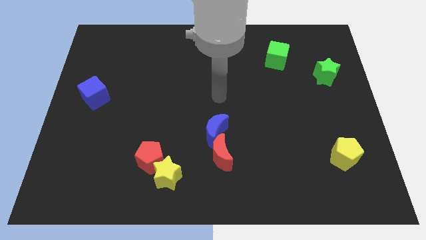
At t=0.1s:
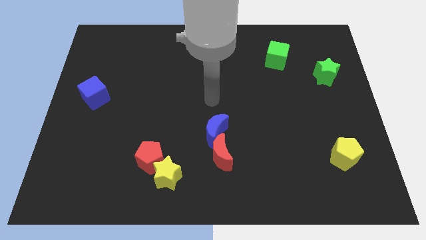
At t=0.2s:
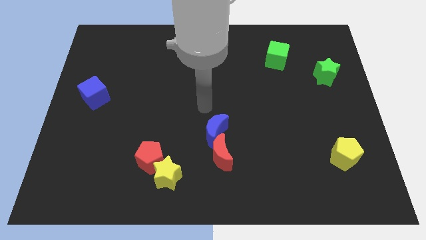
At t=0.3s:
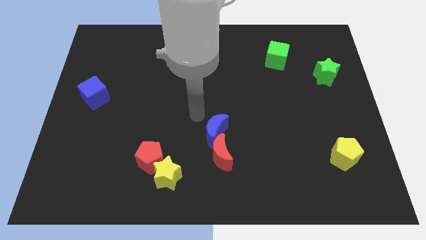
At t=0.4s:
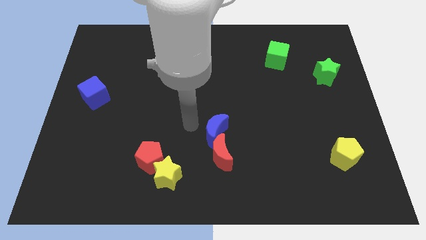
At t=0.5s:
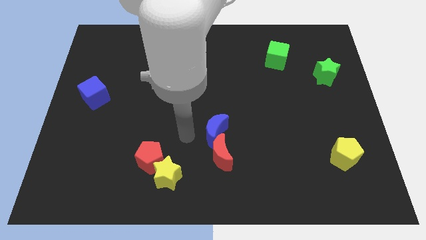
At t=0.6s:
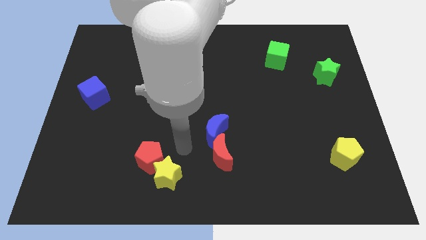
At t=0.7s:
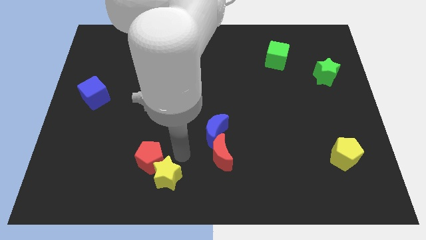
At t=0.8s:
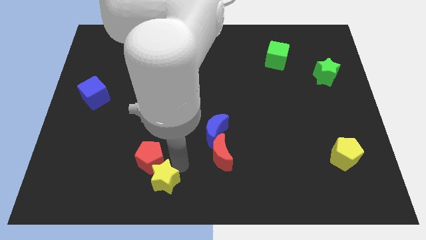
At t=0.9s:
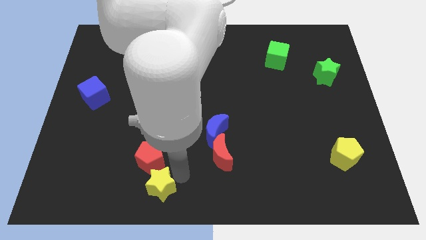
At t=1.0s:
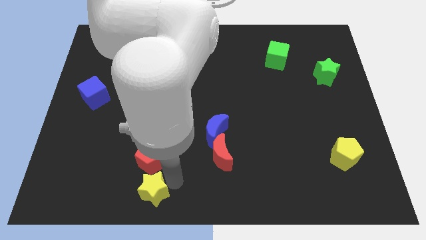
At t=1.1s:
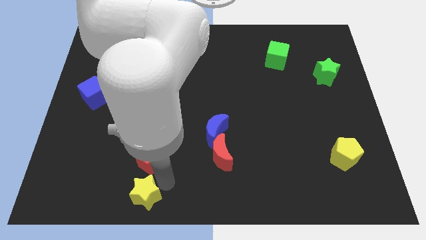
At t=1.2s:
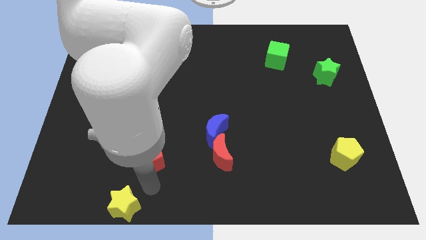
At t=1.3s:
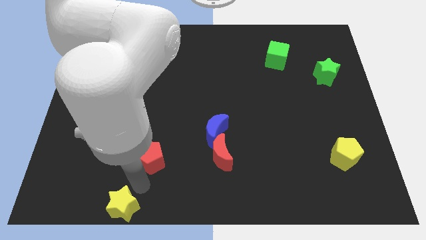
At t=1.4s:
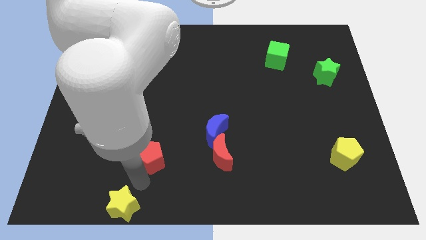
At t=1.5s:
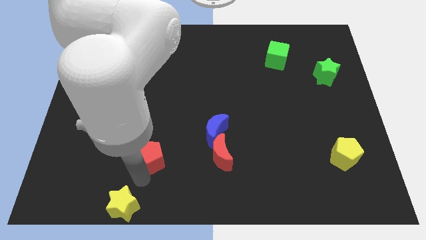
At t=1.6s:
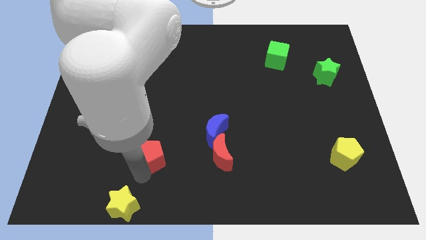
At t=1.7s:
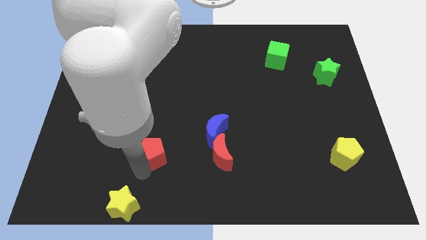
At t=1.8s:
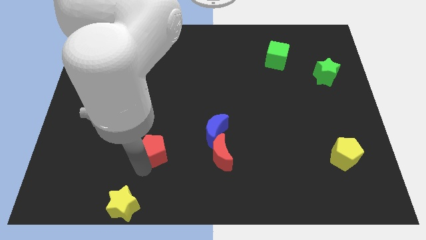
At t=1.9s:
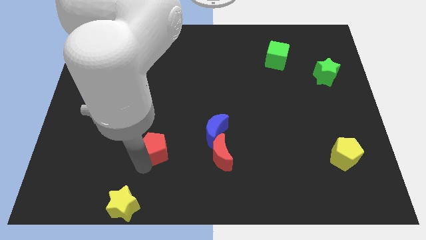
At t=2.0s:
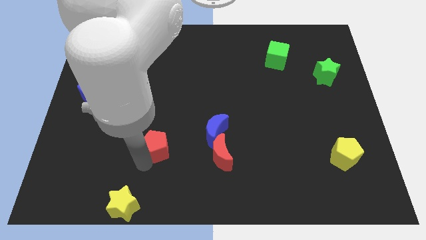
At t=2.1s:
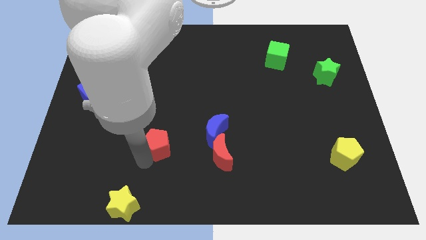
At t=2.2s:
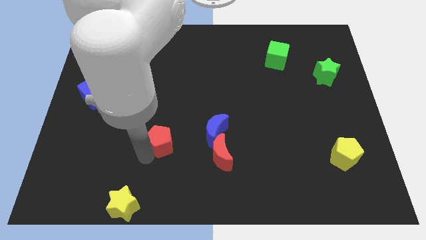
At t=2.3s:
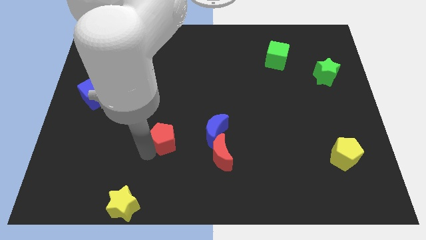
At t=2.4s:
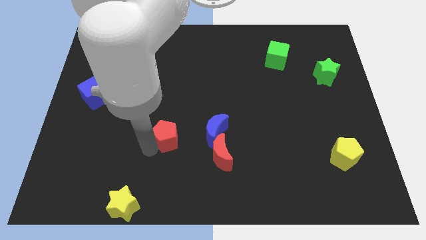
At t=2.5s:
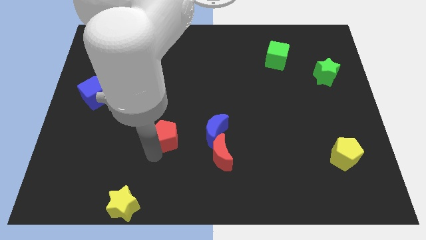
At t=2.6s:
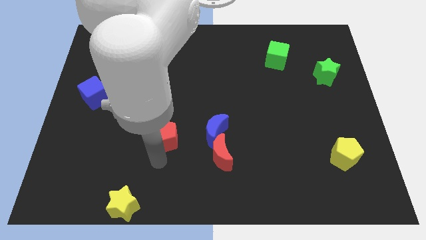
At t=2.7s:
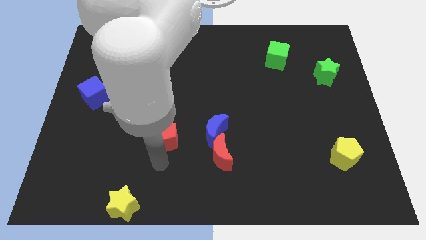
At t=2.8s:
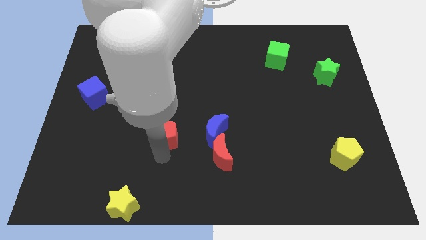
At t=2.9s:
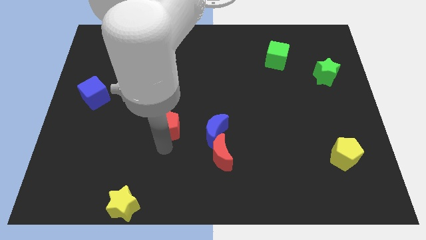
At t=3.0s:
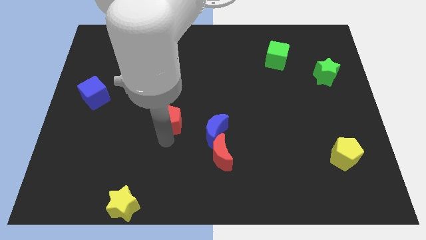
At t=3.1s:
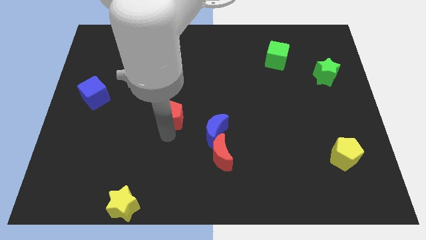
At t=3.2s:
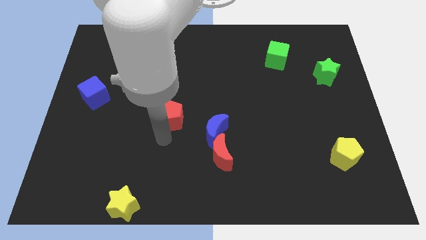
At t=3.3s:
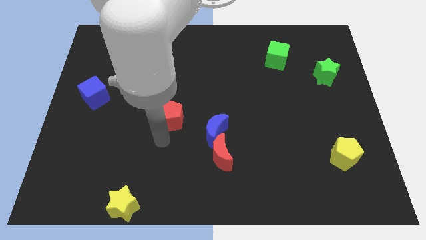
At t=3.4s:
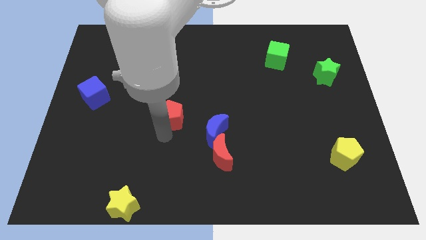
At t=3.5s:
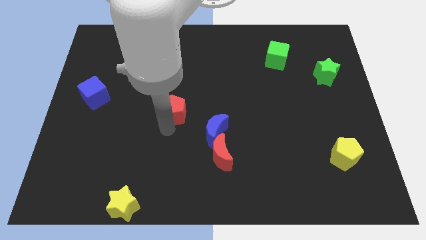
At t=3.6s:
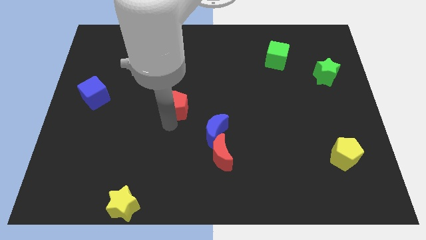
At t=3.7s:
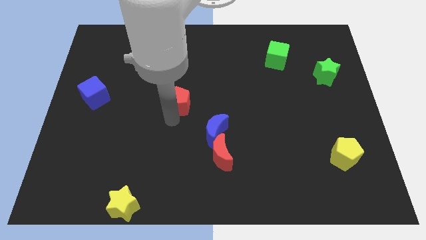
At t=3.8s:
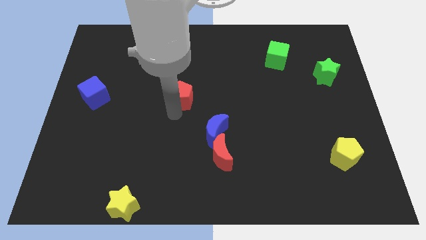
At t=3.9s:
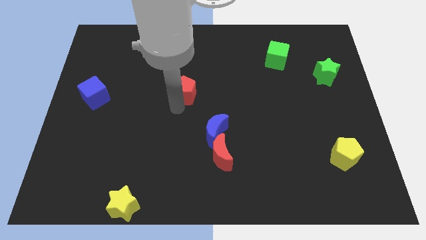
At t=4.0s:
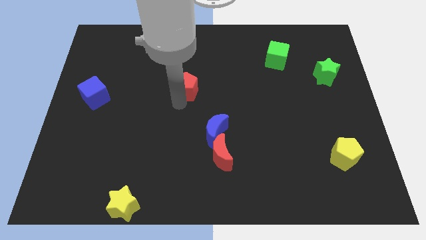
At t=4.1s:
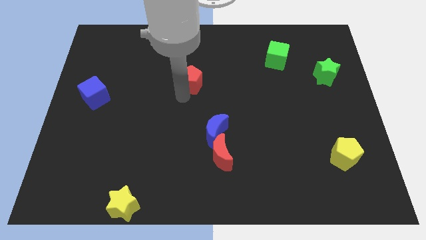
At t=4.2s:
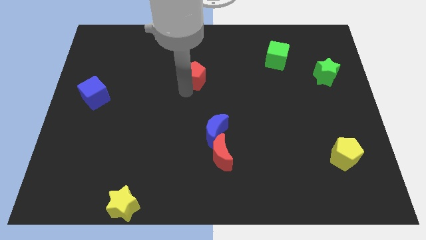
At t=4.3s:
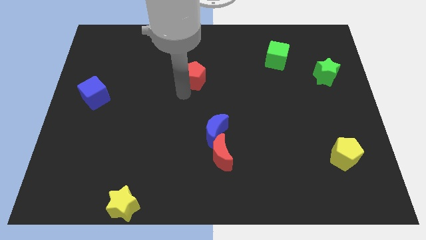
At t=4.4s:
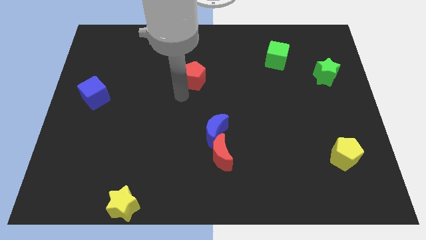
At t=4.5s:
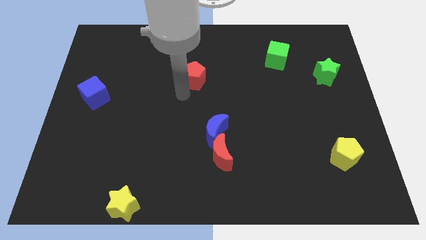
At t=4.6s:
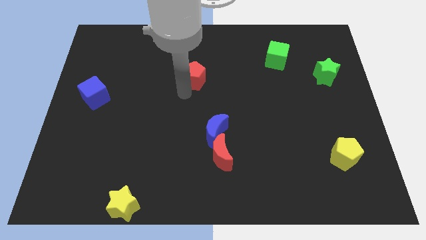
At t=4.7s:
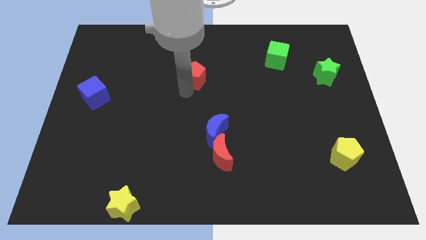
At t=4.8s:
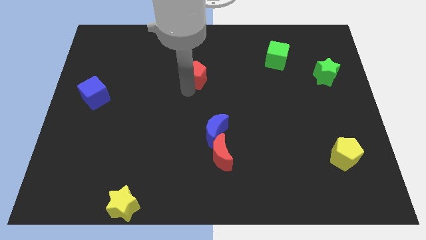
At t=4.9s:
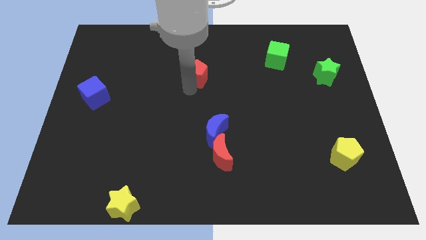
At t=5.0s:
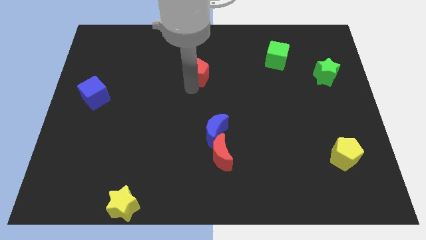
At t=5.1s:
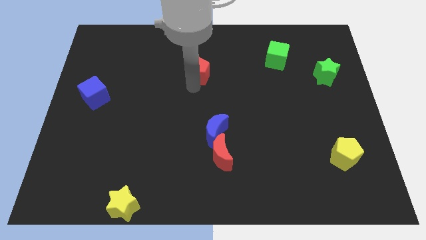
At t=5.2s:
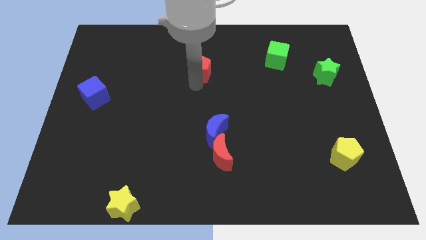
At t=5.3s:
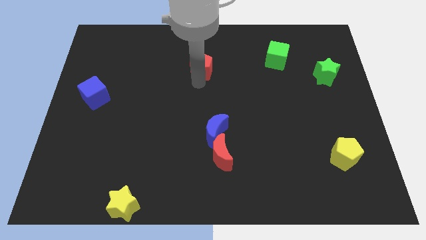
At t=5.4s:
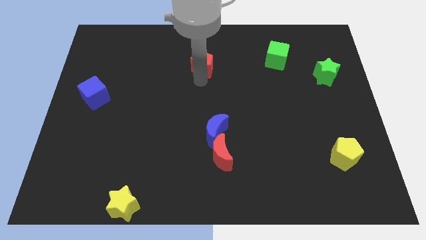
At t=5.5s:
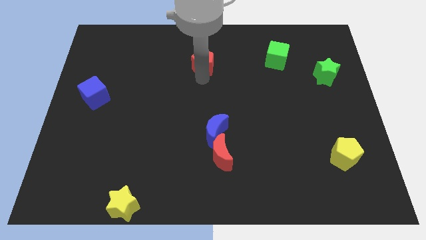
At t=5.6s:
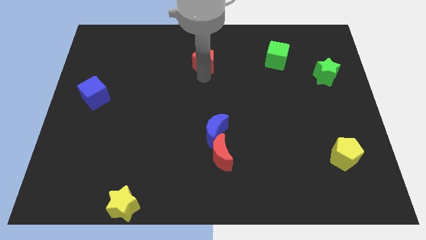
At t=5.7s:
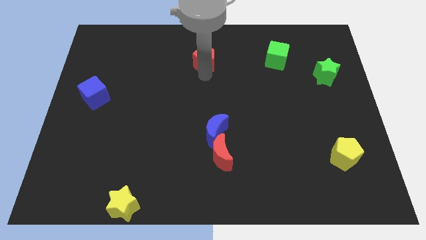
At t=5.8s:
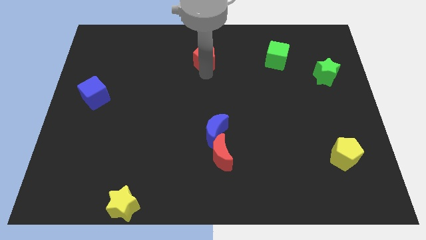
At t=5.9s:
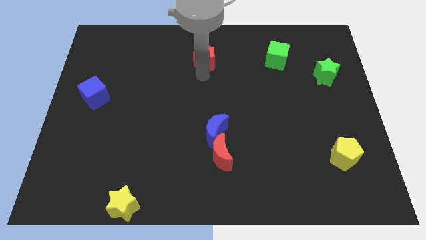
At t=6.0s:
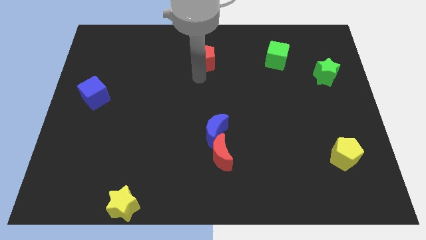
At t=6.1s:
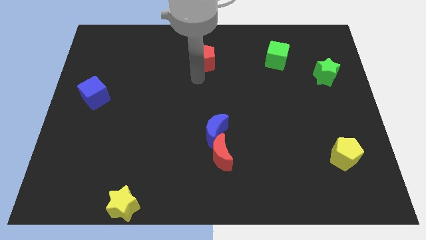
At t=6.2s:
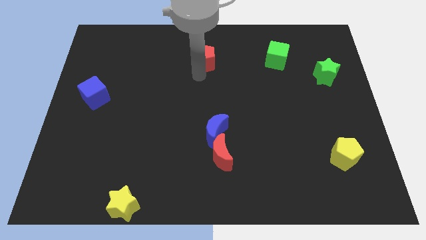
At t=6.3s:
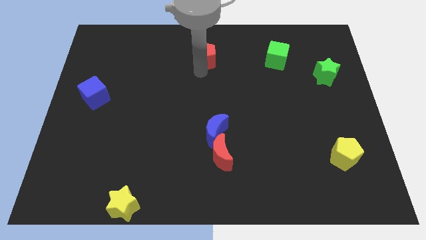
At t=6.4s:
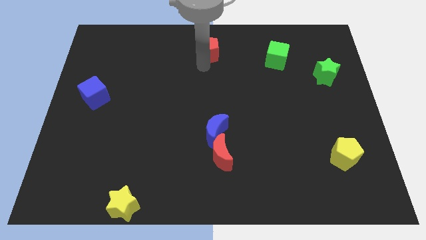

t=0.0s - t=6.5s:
push the red pentagon to the towards your base
